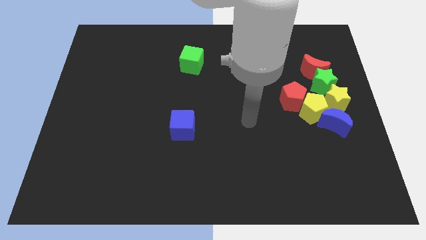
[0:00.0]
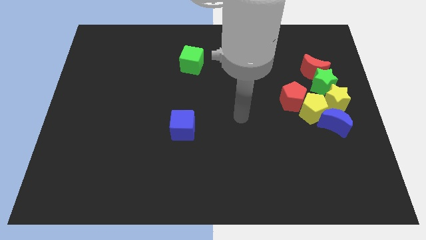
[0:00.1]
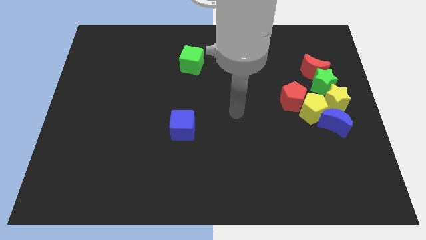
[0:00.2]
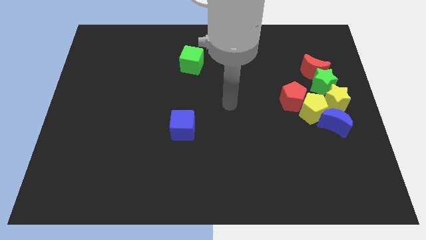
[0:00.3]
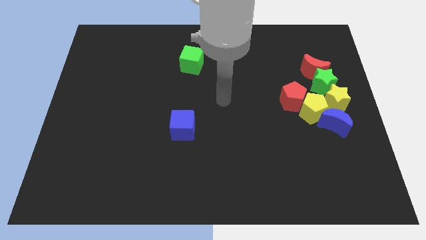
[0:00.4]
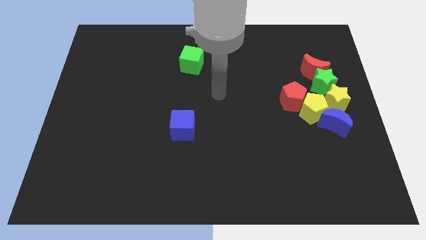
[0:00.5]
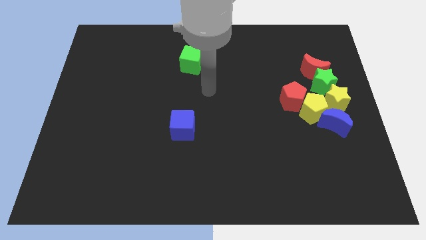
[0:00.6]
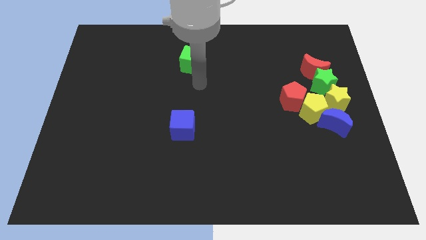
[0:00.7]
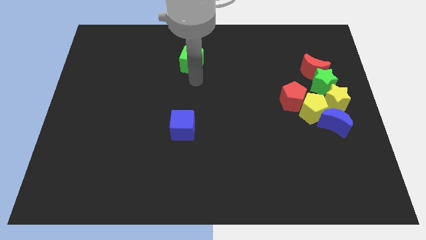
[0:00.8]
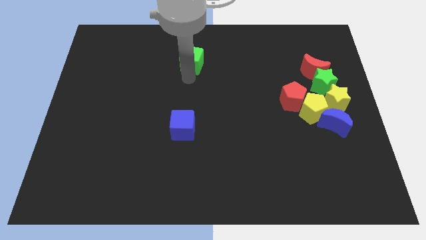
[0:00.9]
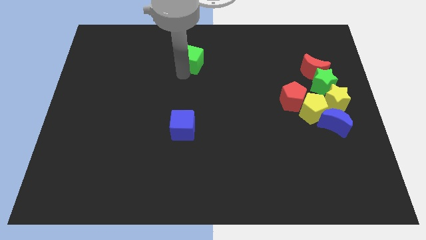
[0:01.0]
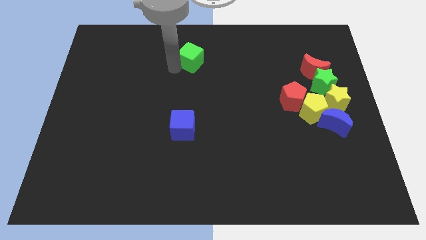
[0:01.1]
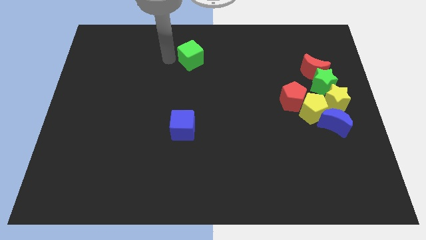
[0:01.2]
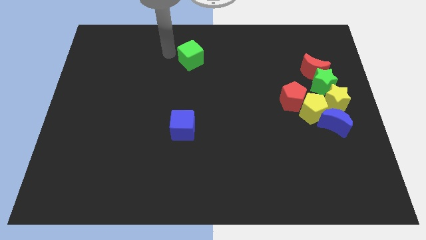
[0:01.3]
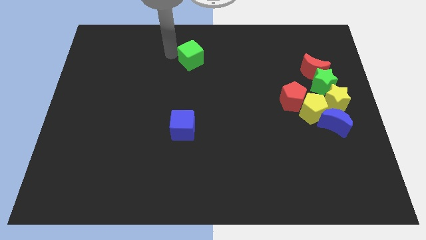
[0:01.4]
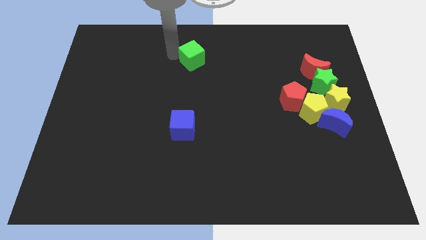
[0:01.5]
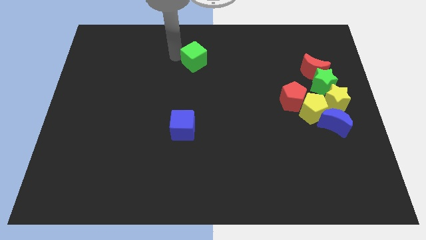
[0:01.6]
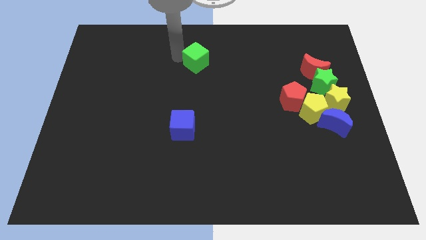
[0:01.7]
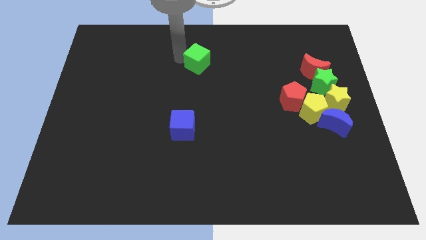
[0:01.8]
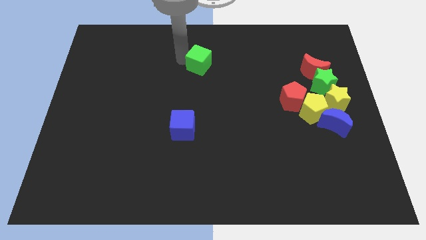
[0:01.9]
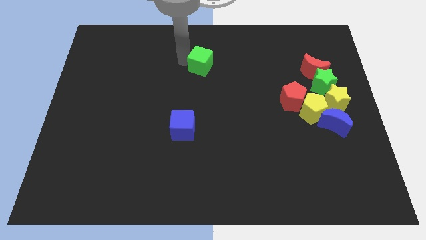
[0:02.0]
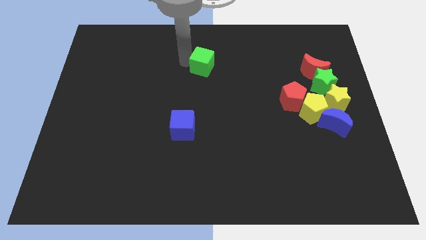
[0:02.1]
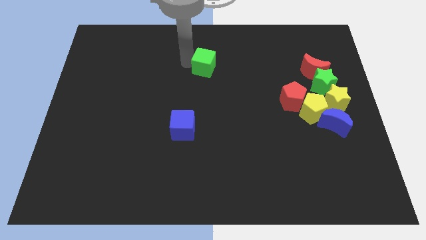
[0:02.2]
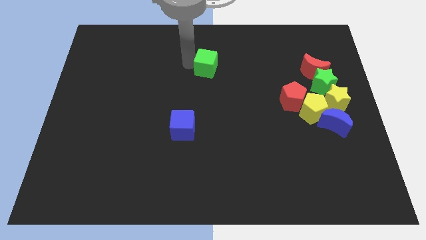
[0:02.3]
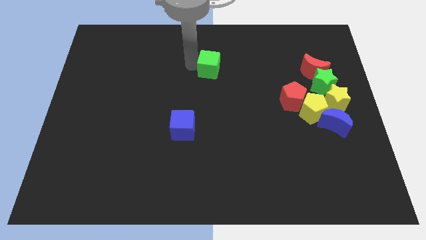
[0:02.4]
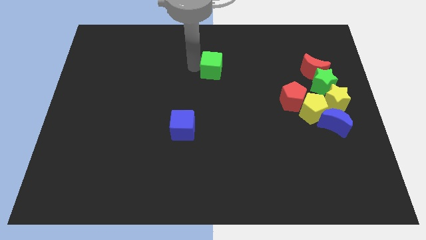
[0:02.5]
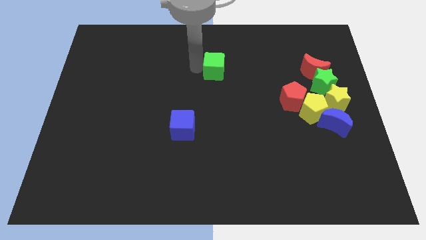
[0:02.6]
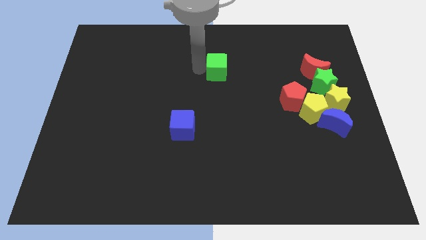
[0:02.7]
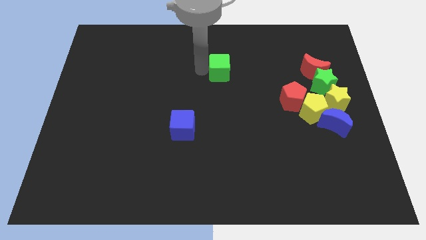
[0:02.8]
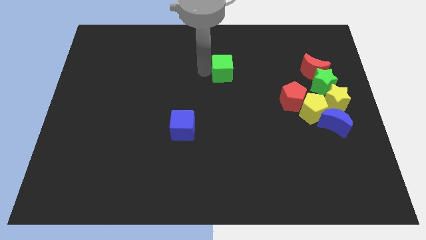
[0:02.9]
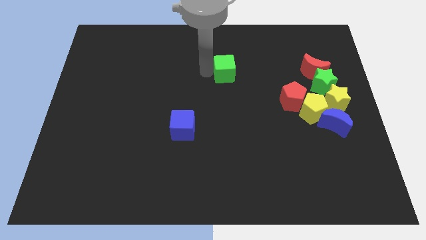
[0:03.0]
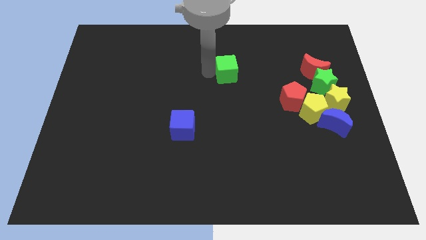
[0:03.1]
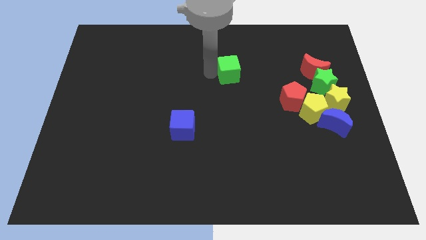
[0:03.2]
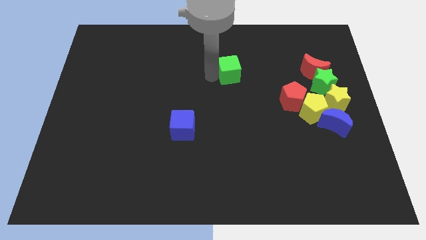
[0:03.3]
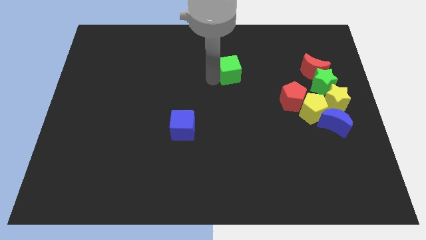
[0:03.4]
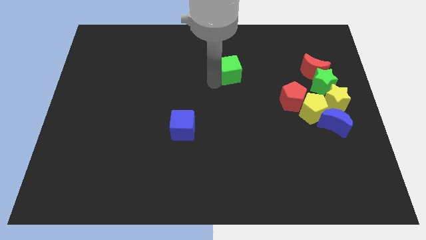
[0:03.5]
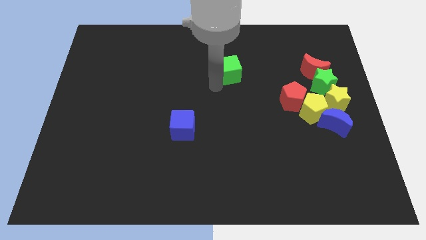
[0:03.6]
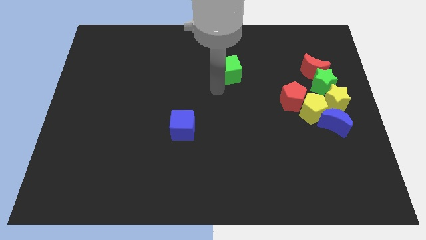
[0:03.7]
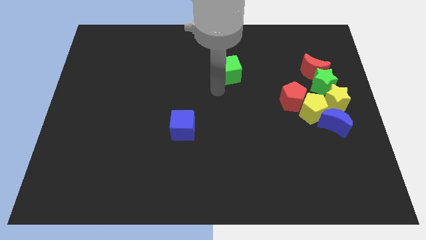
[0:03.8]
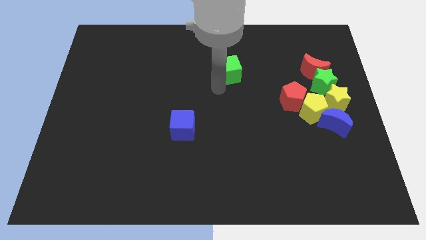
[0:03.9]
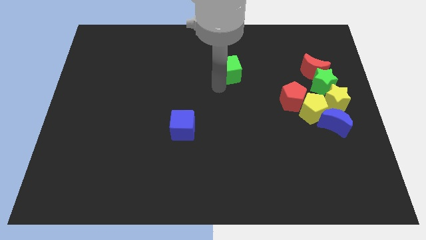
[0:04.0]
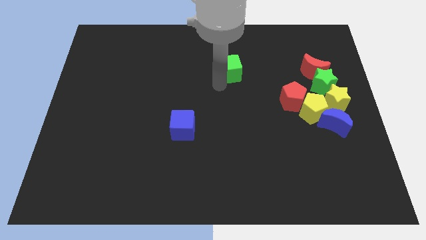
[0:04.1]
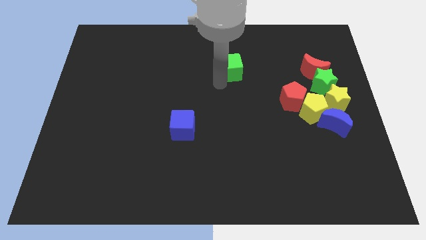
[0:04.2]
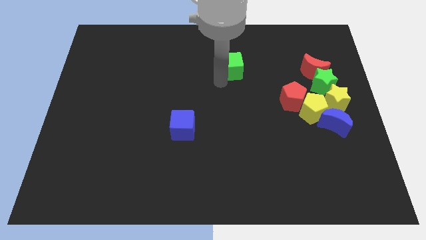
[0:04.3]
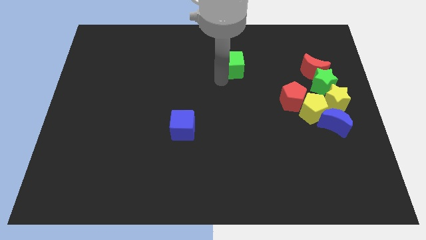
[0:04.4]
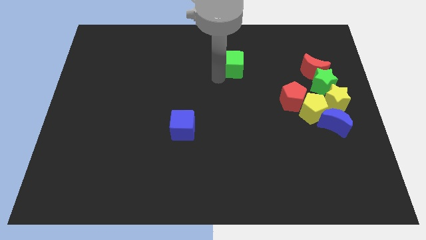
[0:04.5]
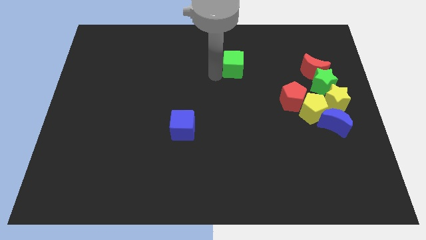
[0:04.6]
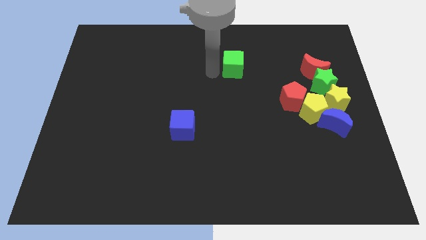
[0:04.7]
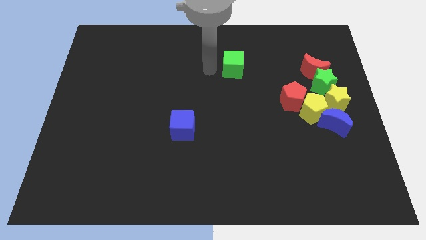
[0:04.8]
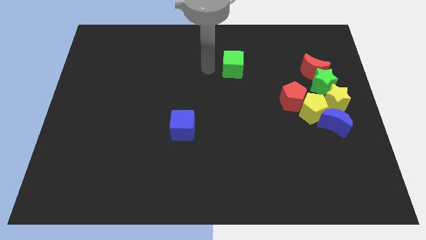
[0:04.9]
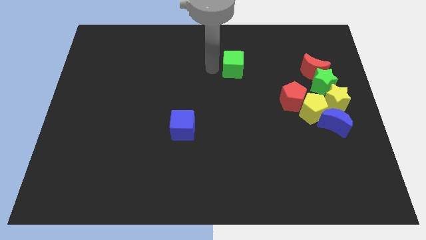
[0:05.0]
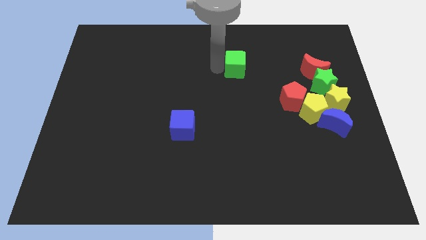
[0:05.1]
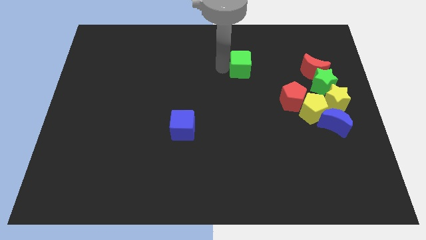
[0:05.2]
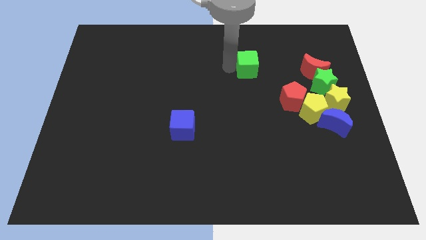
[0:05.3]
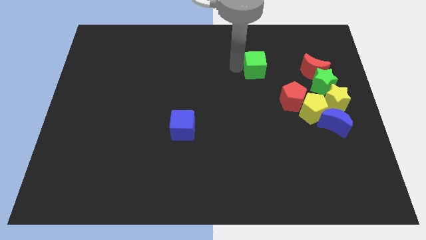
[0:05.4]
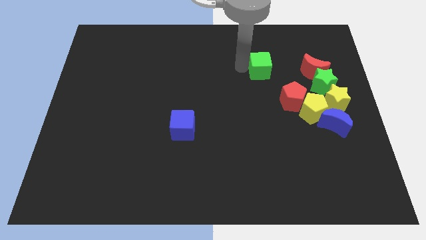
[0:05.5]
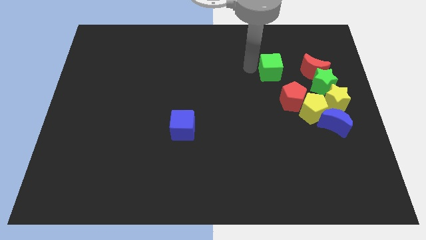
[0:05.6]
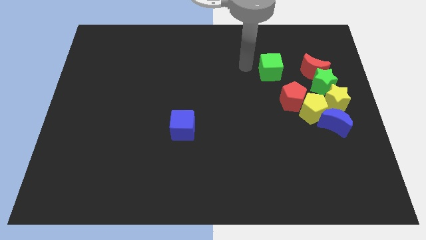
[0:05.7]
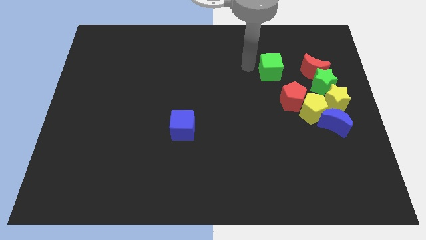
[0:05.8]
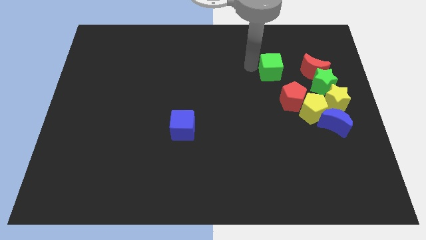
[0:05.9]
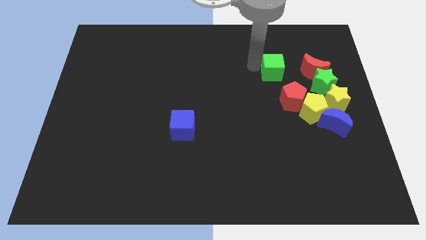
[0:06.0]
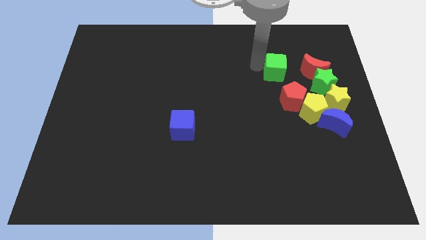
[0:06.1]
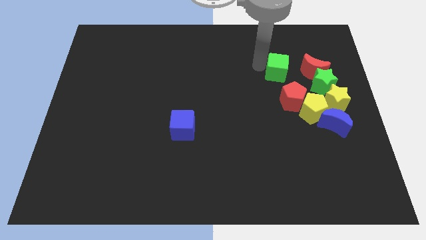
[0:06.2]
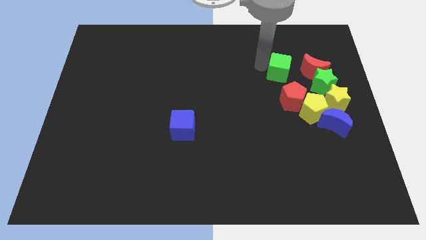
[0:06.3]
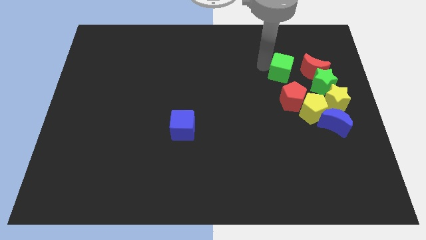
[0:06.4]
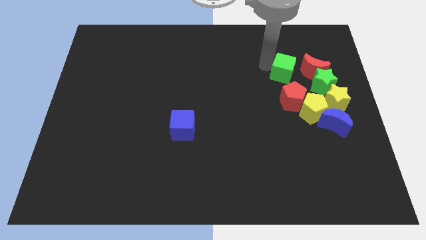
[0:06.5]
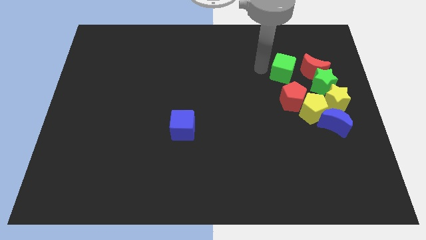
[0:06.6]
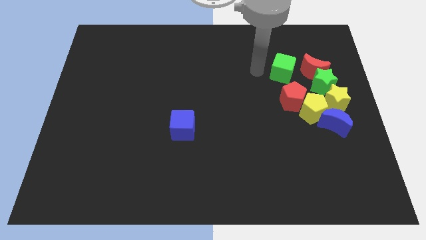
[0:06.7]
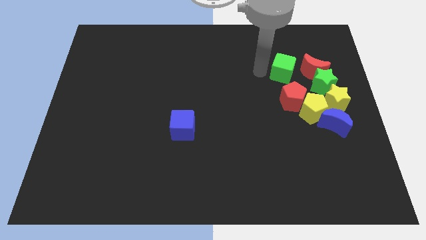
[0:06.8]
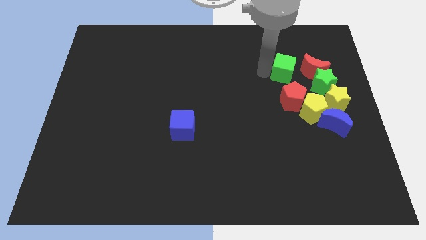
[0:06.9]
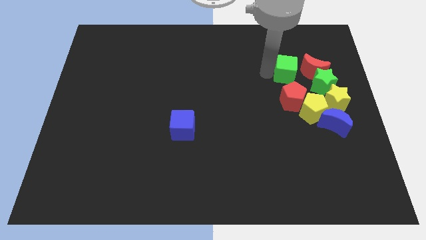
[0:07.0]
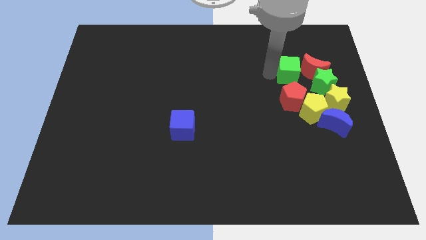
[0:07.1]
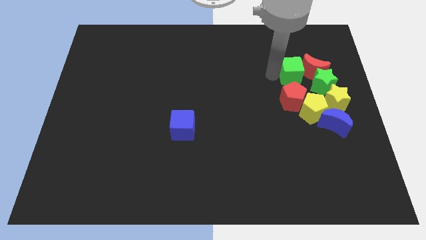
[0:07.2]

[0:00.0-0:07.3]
move the green cube next to the red moon
